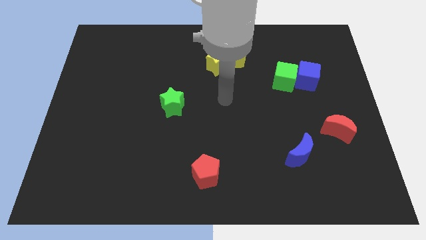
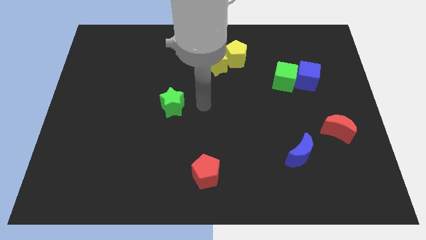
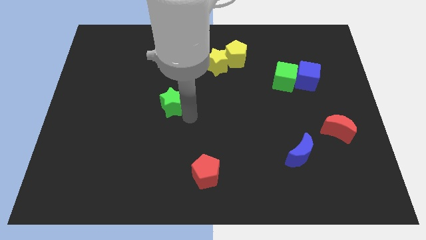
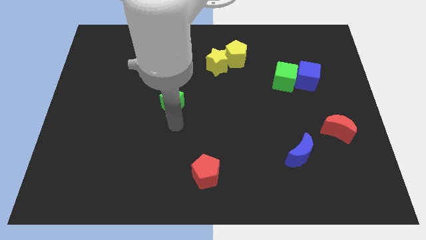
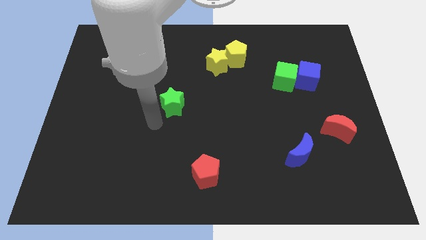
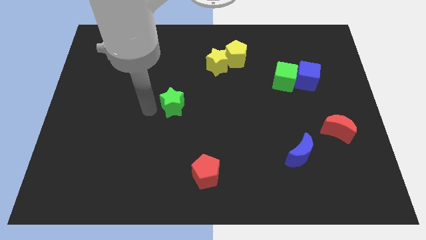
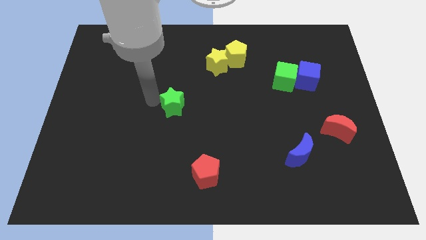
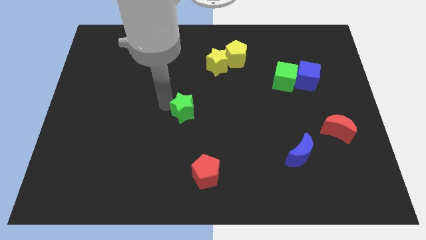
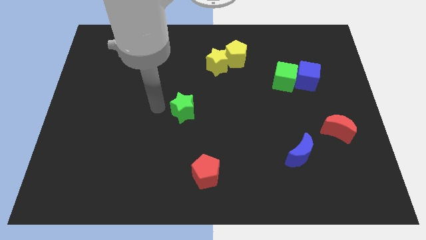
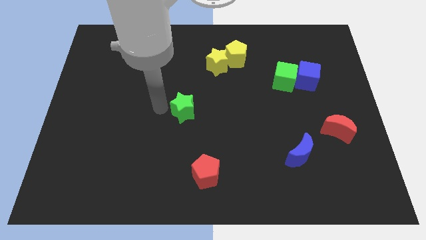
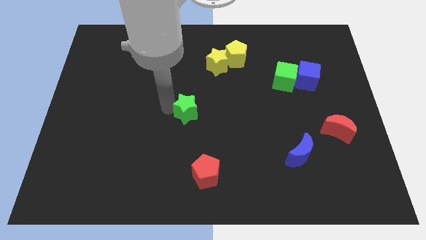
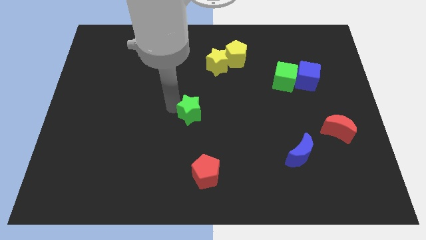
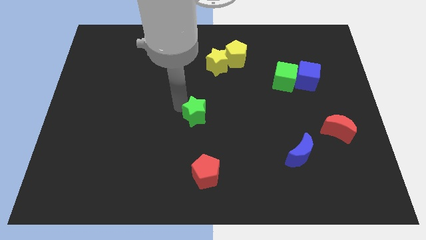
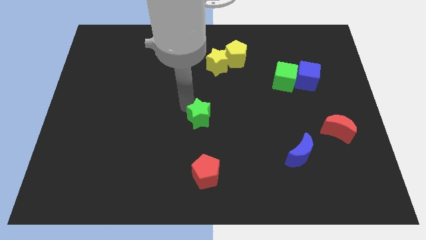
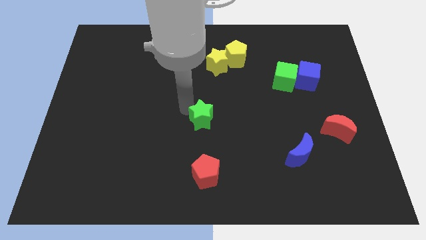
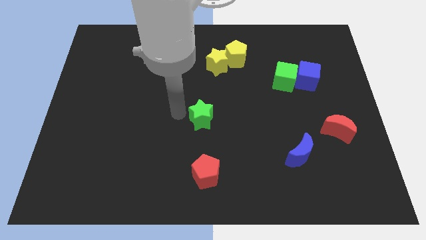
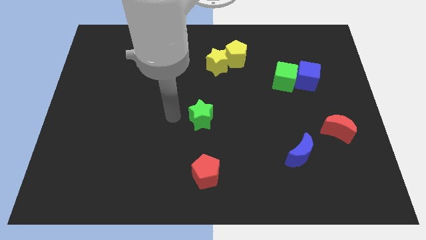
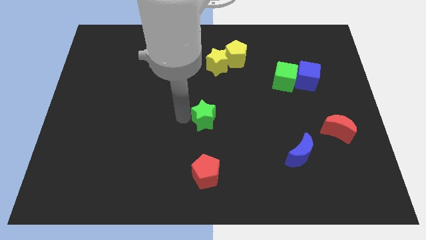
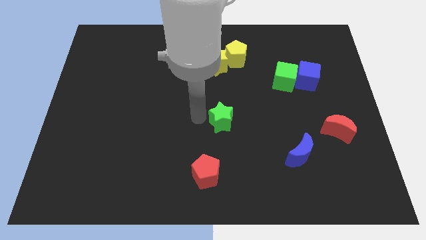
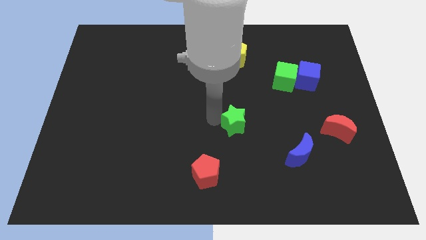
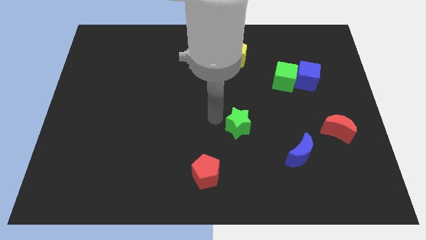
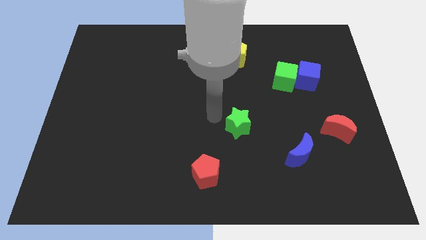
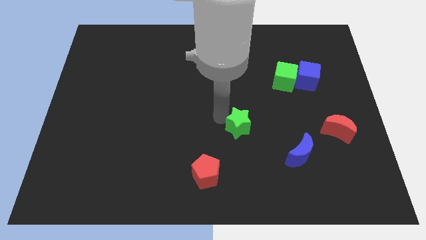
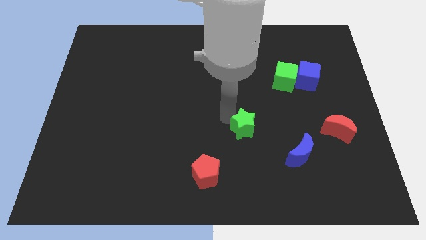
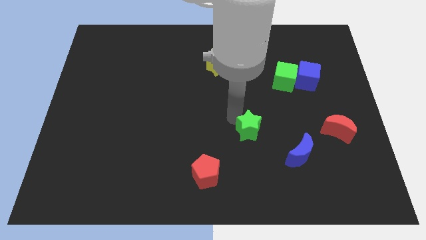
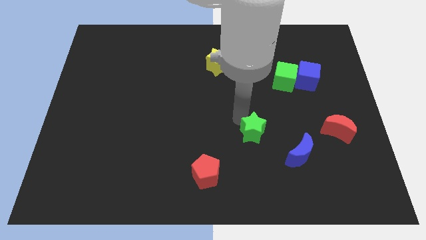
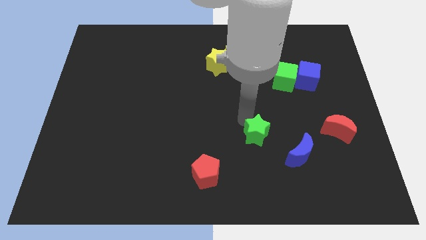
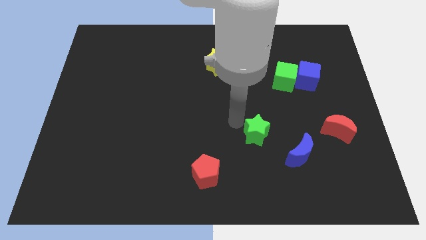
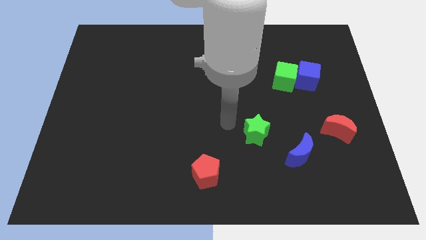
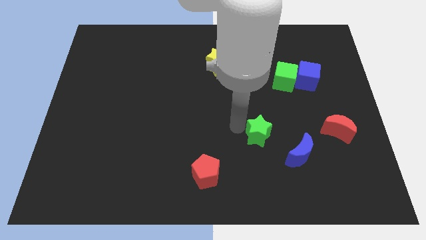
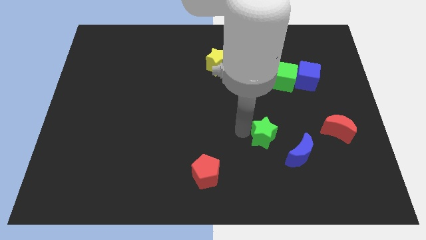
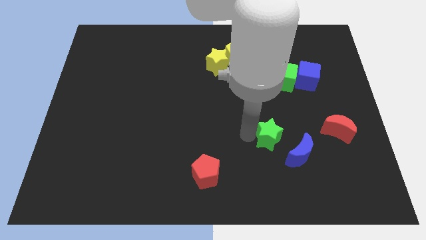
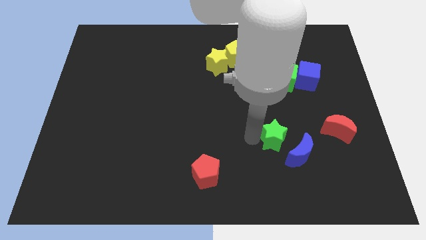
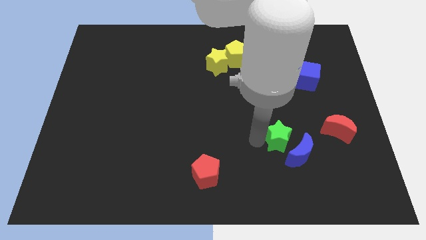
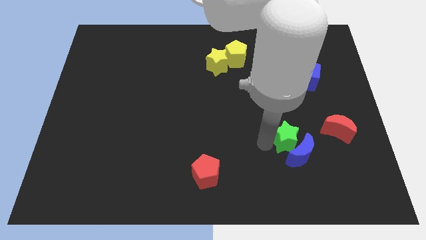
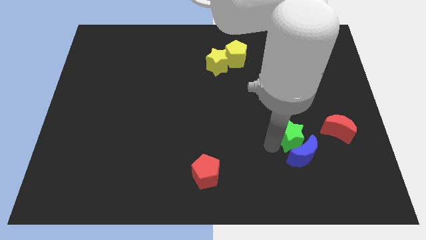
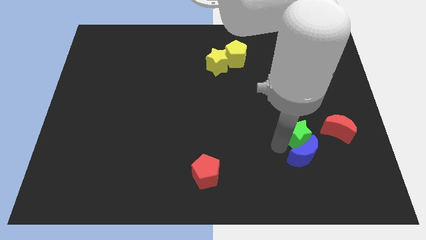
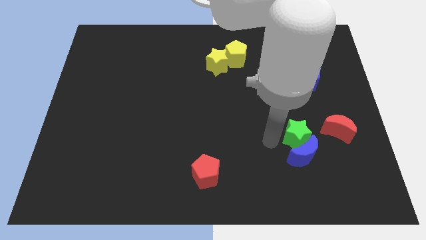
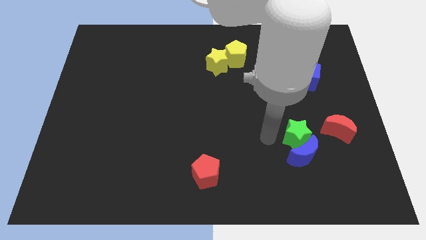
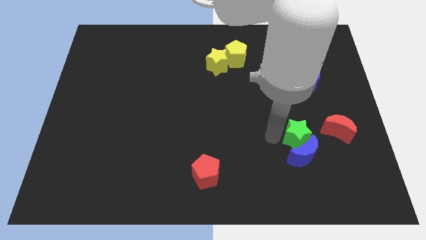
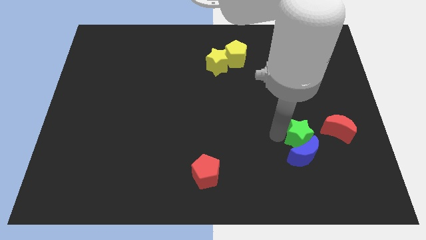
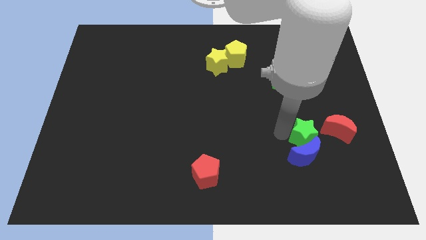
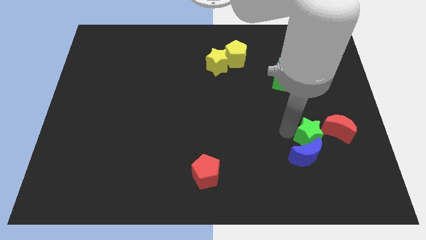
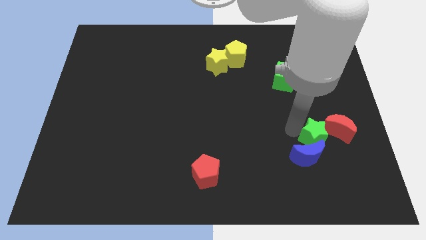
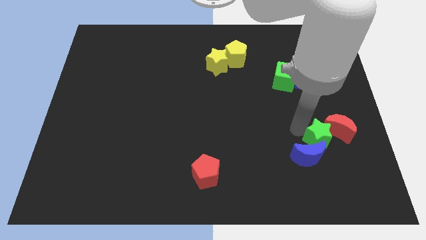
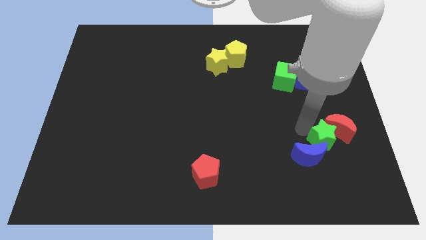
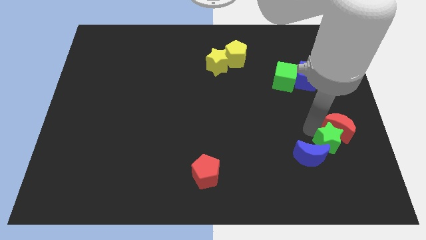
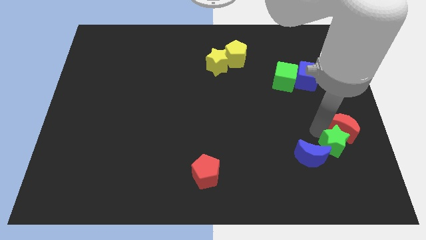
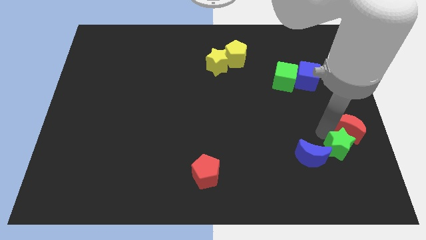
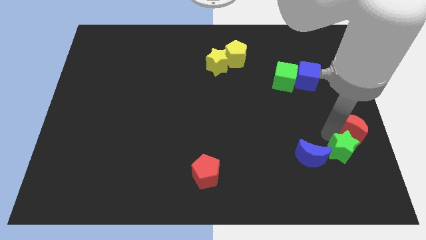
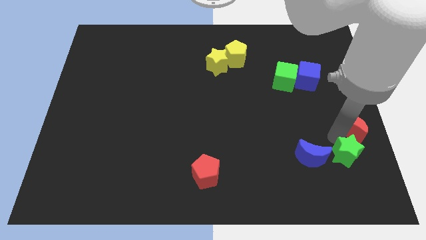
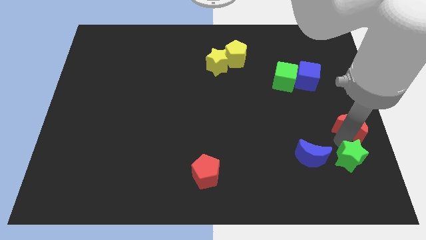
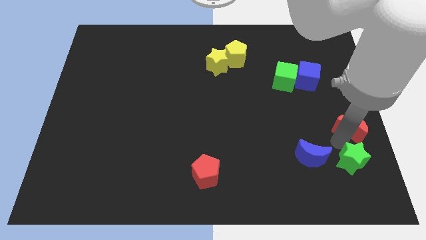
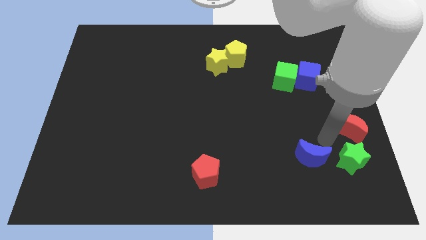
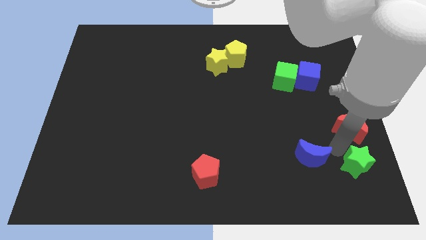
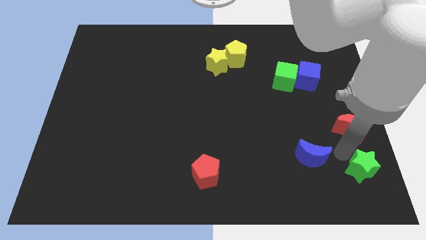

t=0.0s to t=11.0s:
slide the green star to the lower right corner
